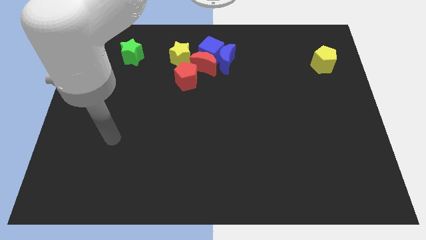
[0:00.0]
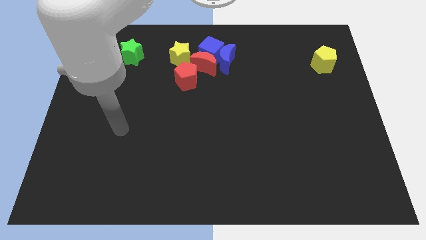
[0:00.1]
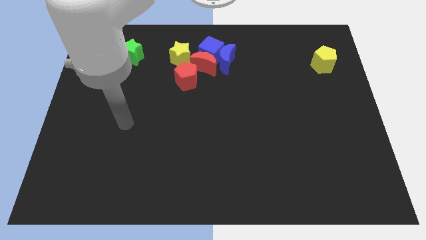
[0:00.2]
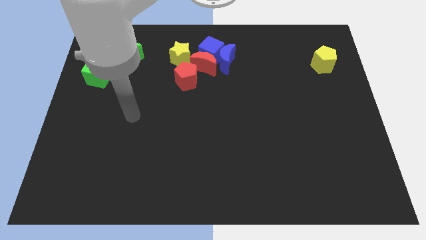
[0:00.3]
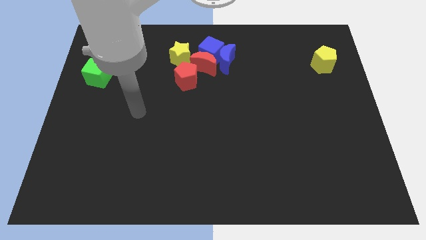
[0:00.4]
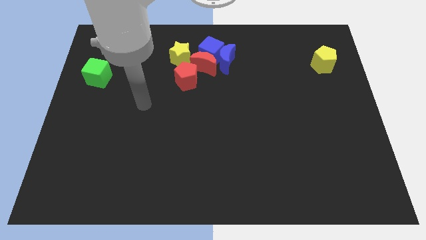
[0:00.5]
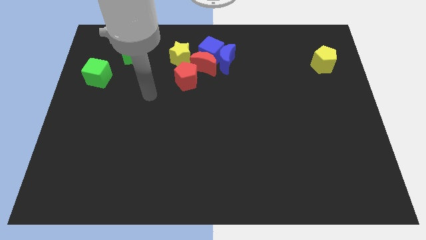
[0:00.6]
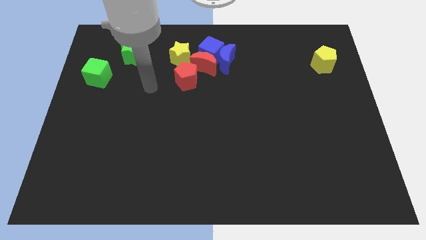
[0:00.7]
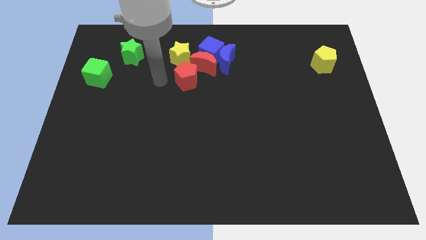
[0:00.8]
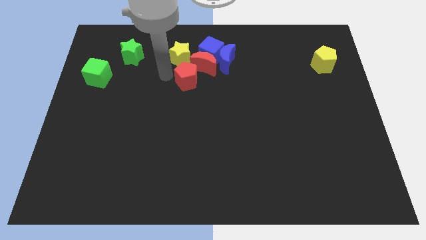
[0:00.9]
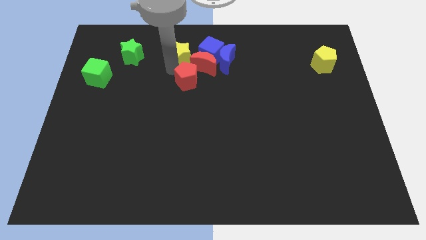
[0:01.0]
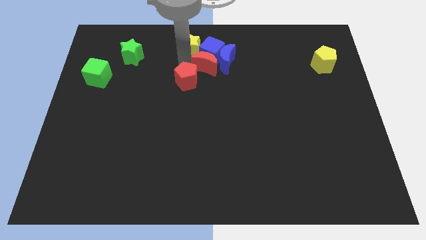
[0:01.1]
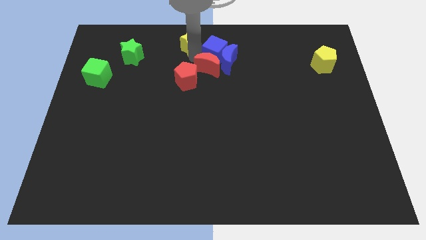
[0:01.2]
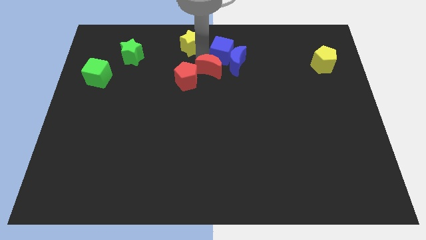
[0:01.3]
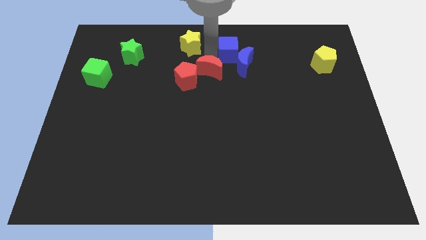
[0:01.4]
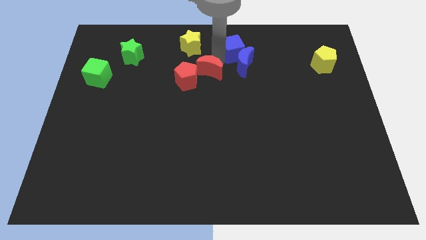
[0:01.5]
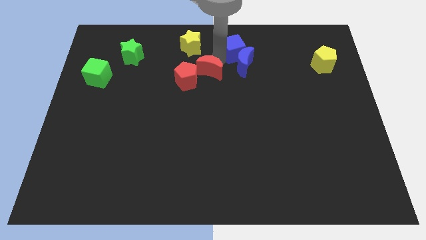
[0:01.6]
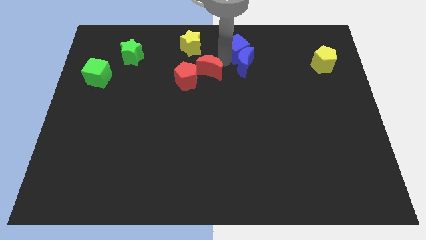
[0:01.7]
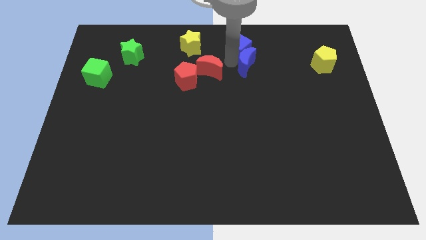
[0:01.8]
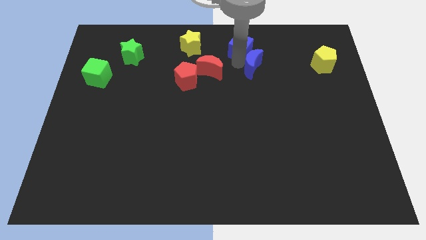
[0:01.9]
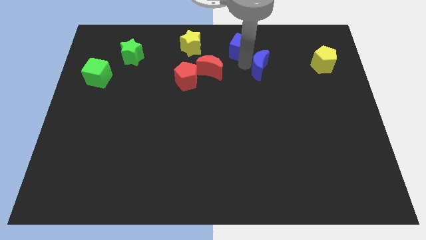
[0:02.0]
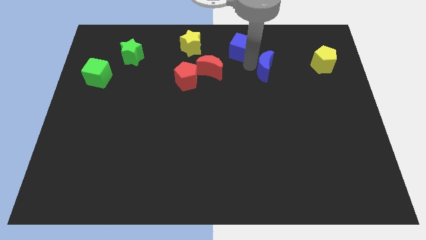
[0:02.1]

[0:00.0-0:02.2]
move the blue moon away from the blue cube and red moon

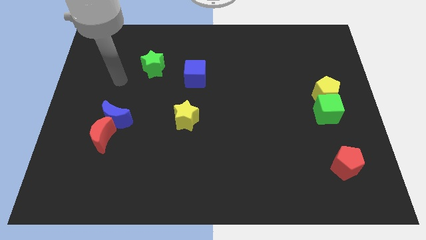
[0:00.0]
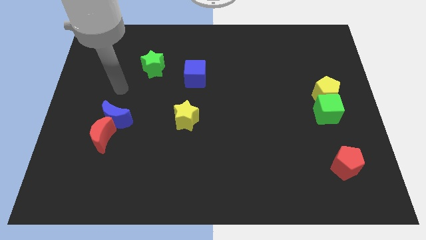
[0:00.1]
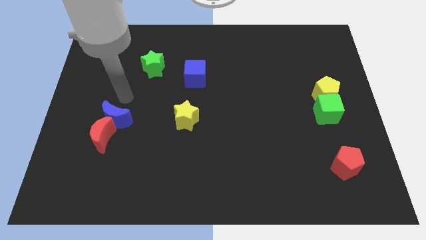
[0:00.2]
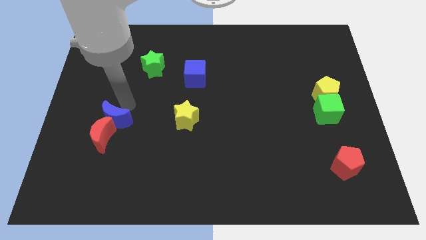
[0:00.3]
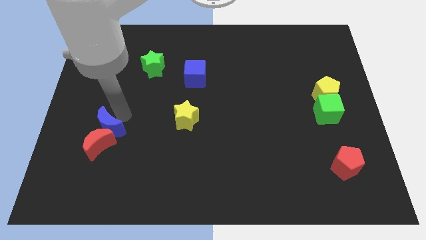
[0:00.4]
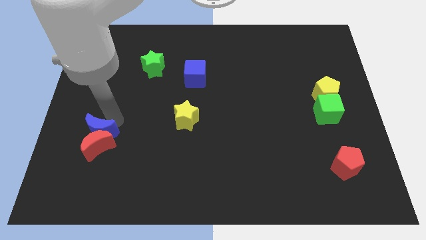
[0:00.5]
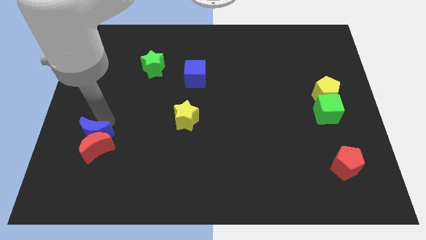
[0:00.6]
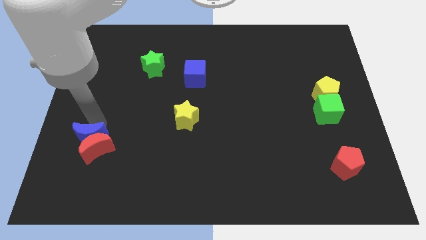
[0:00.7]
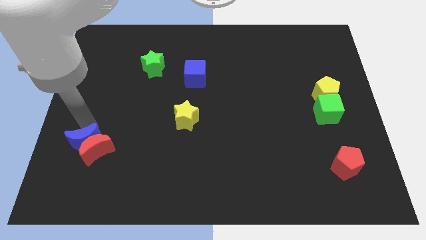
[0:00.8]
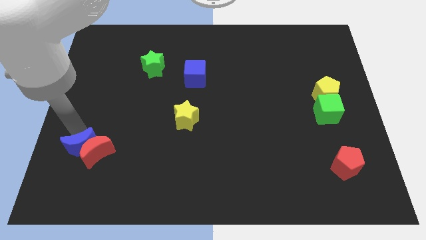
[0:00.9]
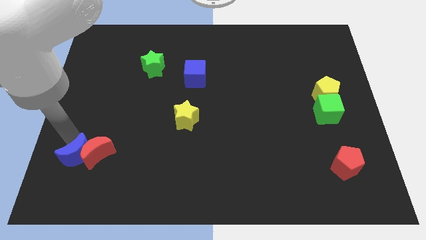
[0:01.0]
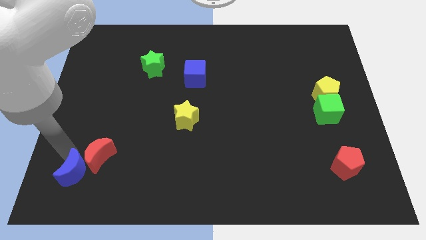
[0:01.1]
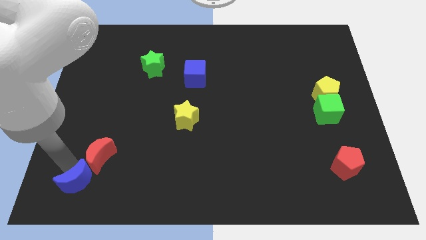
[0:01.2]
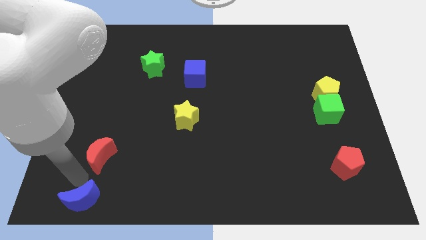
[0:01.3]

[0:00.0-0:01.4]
move the red moon away from the blue moon

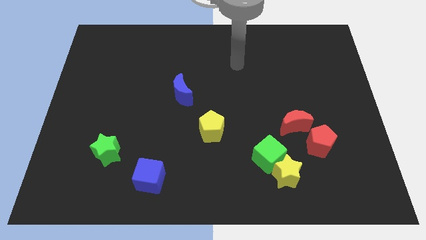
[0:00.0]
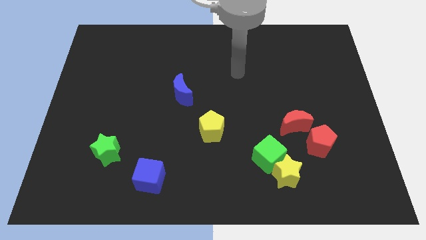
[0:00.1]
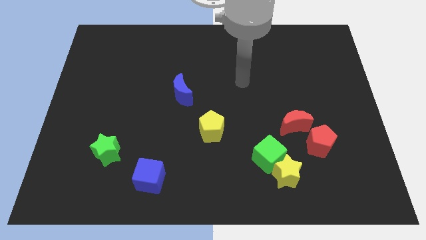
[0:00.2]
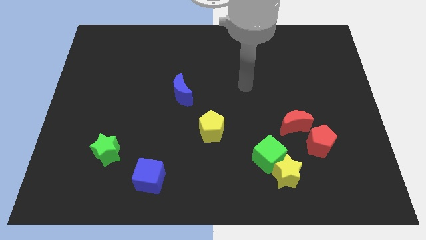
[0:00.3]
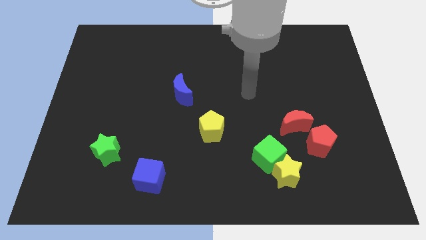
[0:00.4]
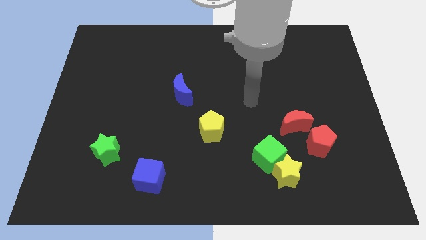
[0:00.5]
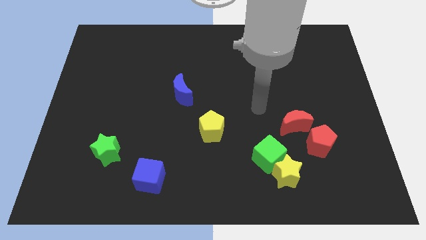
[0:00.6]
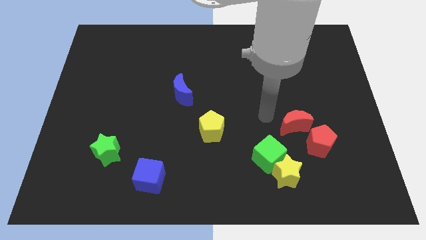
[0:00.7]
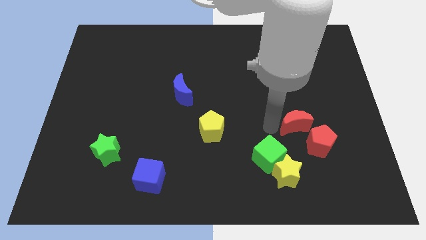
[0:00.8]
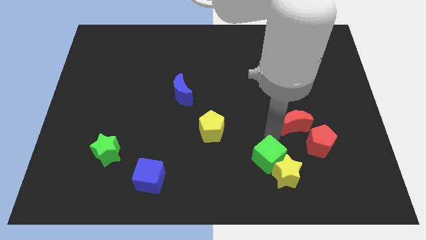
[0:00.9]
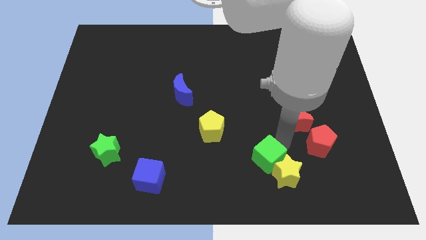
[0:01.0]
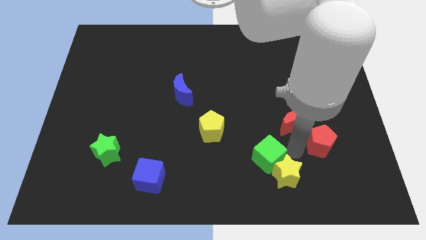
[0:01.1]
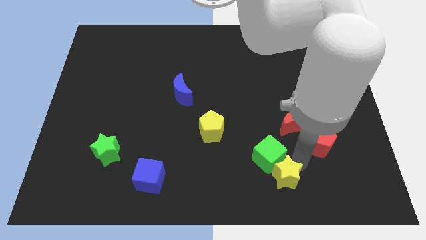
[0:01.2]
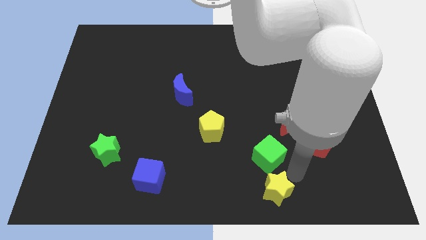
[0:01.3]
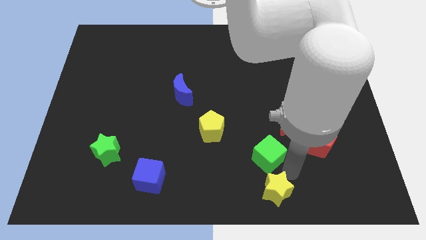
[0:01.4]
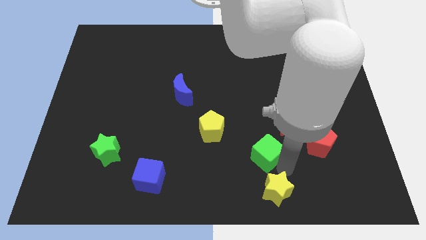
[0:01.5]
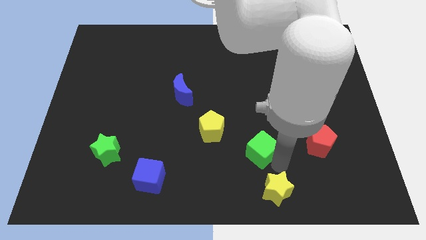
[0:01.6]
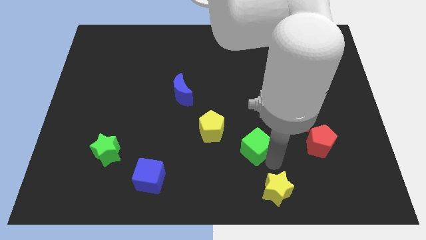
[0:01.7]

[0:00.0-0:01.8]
pull the green cube apart from the yellow star

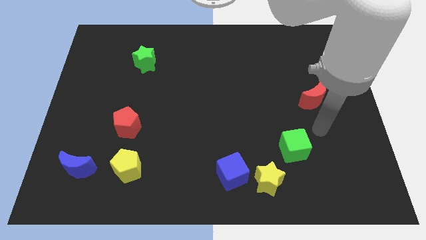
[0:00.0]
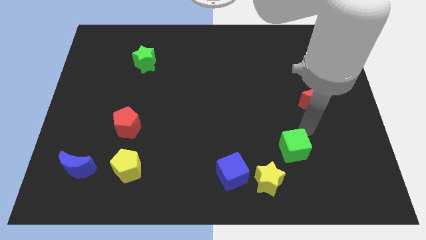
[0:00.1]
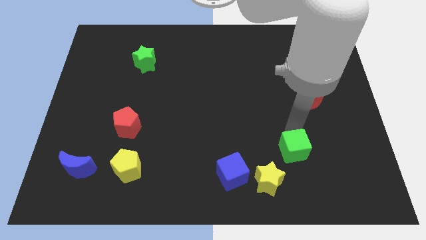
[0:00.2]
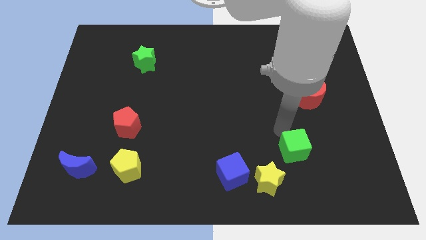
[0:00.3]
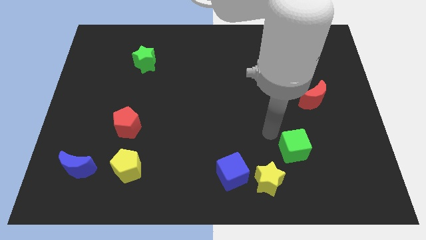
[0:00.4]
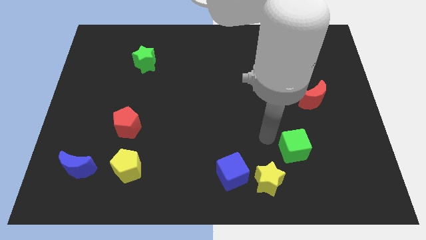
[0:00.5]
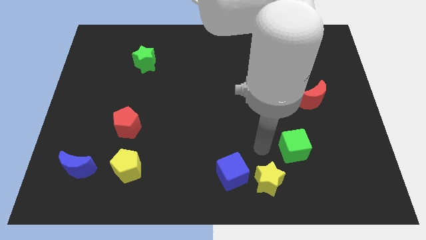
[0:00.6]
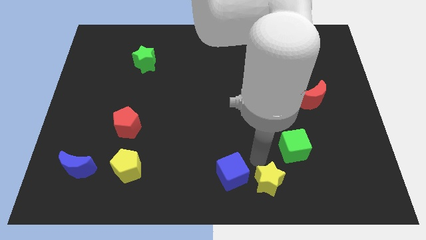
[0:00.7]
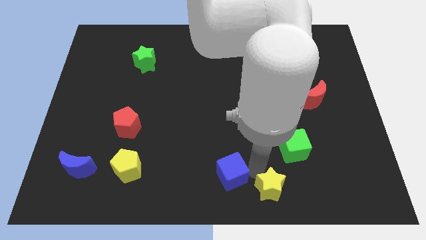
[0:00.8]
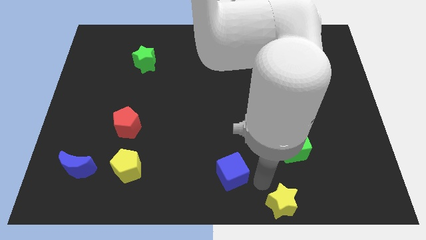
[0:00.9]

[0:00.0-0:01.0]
separate the blue cube from the yellow star

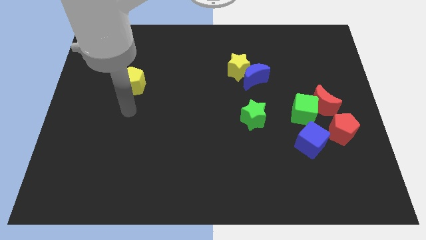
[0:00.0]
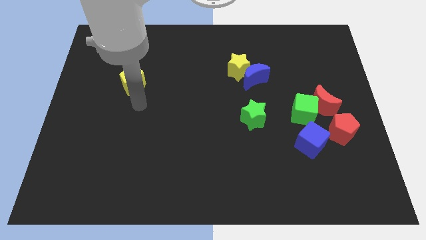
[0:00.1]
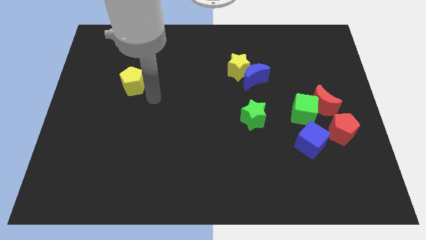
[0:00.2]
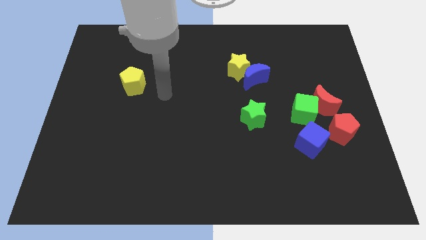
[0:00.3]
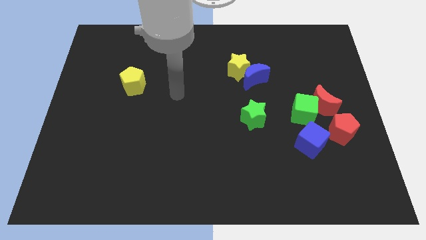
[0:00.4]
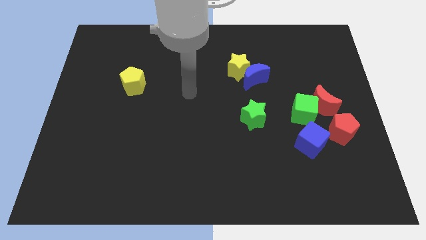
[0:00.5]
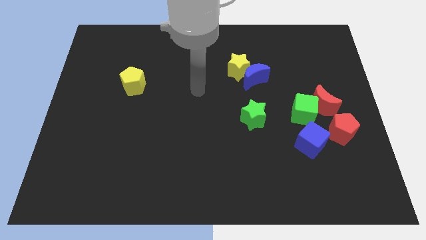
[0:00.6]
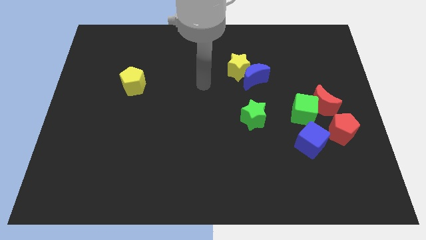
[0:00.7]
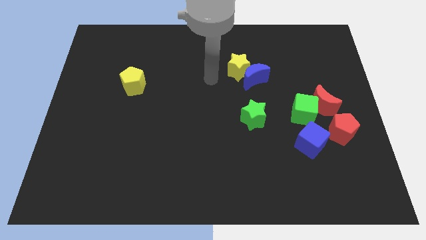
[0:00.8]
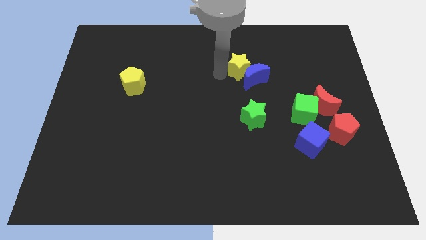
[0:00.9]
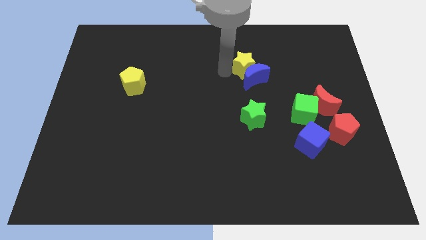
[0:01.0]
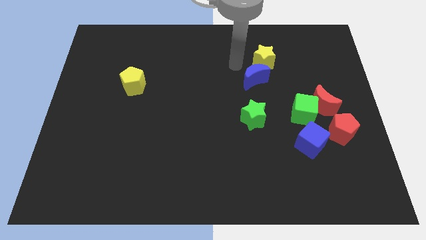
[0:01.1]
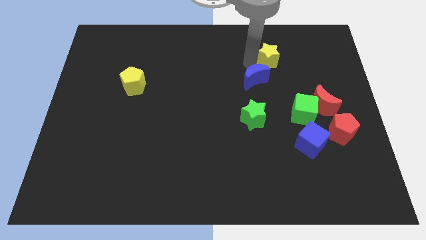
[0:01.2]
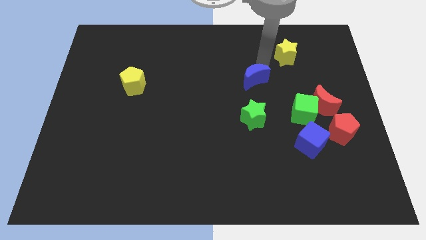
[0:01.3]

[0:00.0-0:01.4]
separate the blue moon from the yellow star

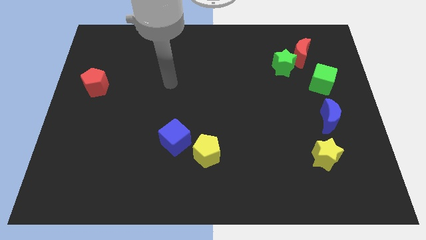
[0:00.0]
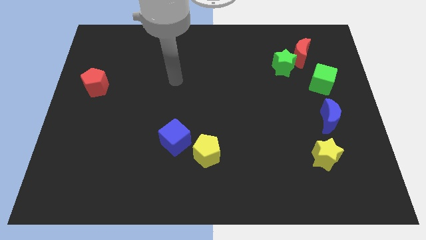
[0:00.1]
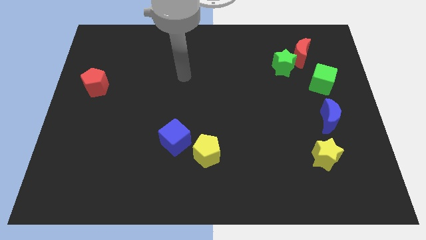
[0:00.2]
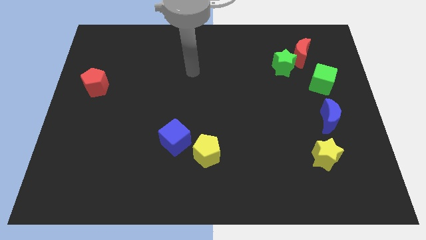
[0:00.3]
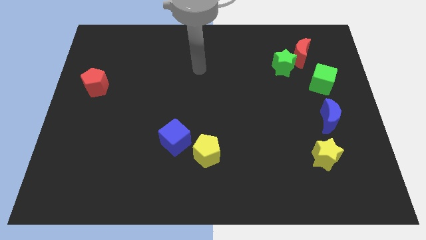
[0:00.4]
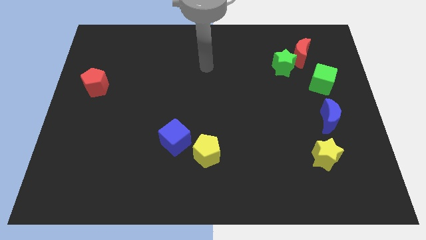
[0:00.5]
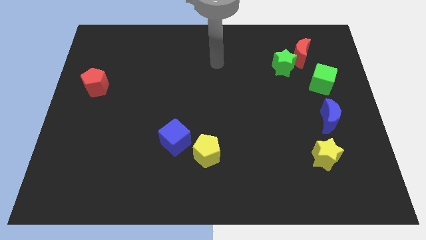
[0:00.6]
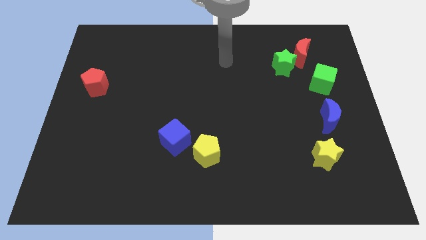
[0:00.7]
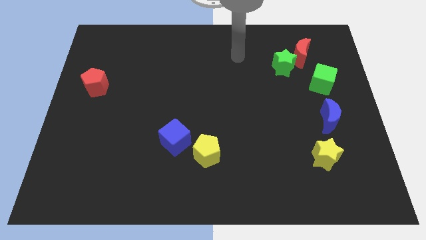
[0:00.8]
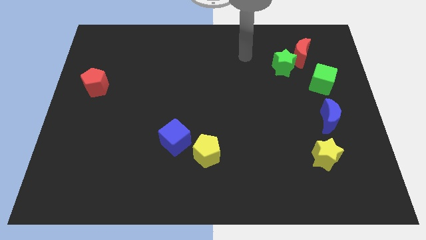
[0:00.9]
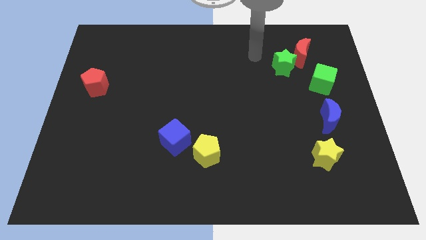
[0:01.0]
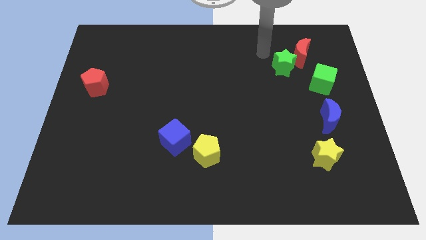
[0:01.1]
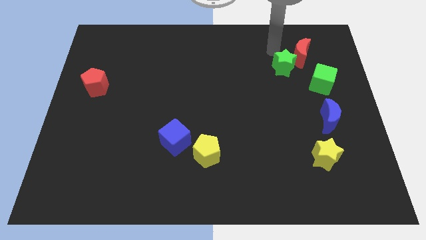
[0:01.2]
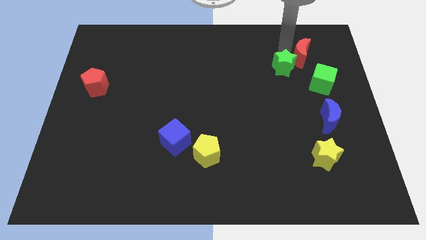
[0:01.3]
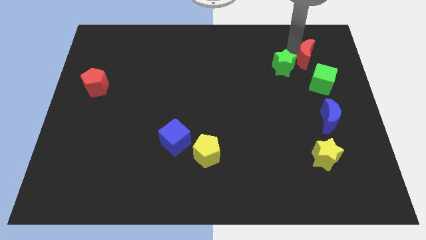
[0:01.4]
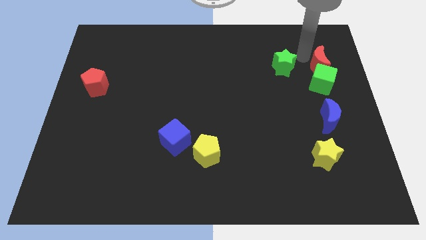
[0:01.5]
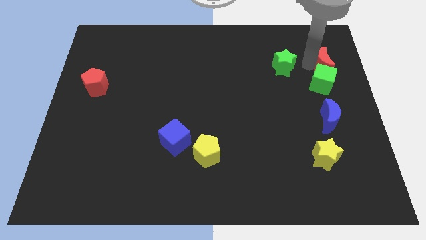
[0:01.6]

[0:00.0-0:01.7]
move the green star away from the red moon
